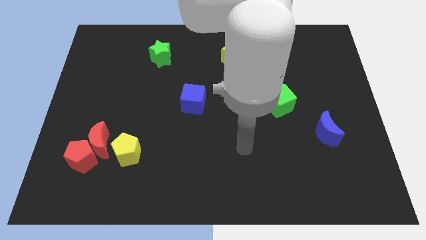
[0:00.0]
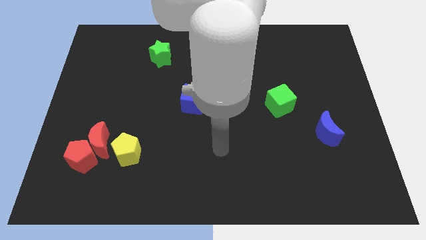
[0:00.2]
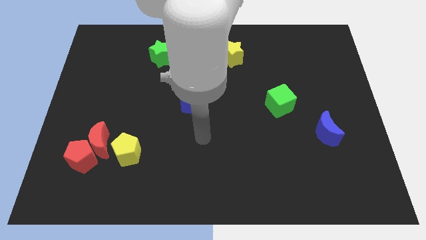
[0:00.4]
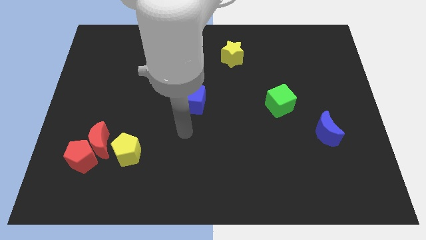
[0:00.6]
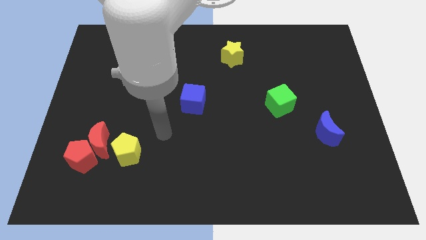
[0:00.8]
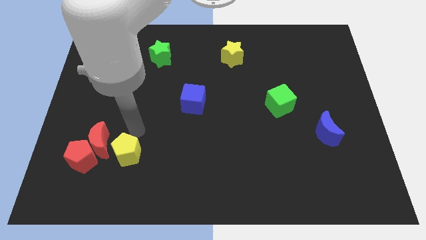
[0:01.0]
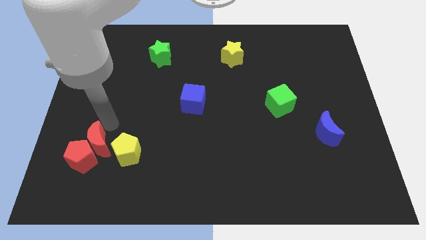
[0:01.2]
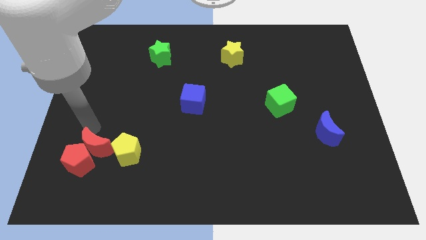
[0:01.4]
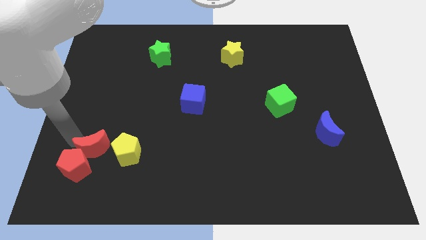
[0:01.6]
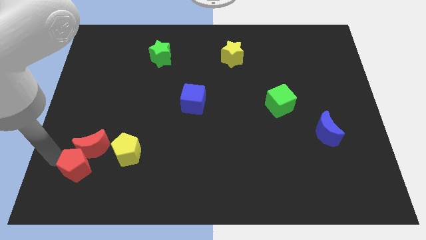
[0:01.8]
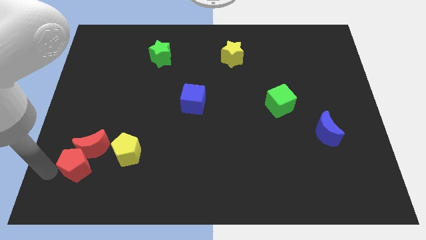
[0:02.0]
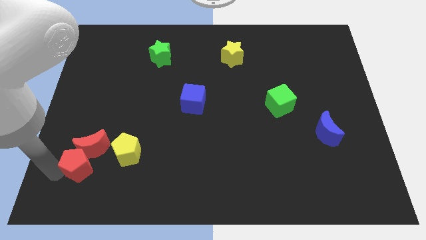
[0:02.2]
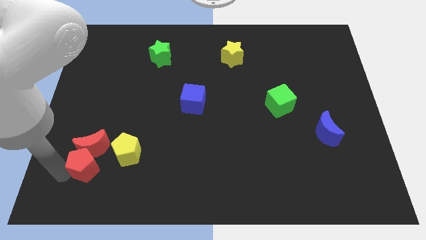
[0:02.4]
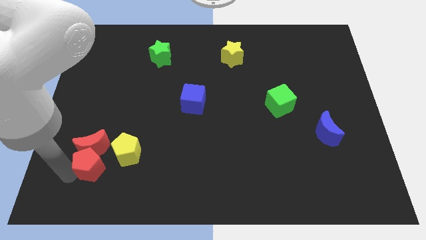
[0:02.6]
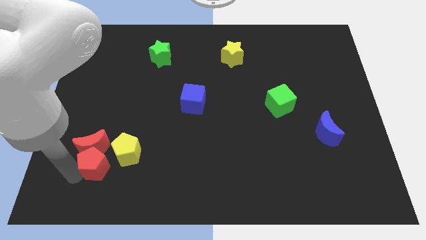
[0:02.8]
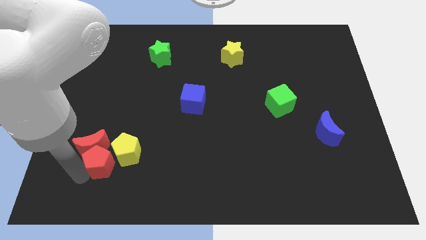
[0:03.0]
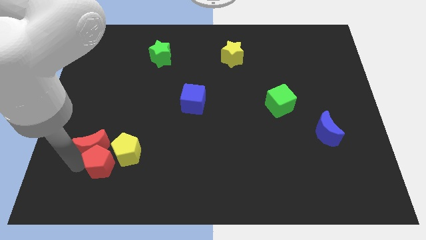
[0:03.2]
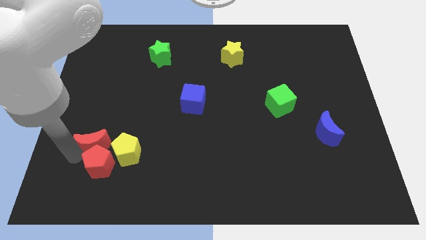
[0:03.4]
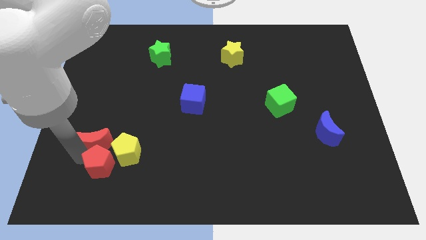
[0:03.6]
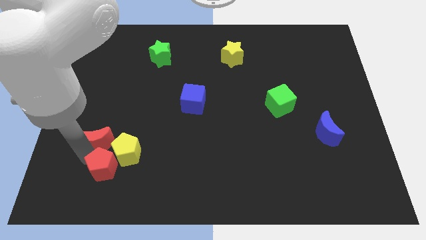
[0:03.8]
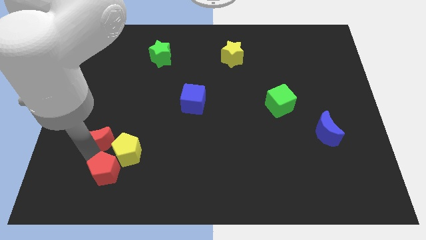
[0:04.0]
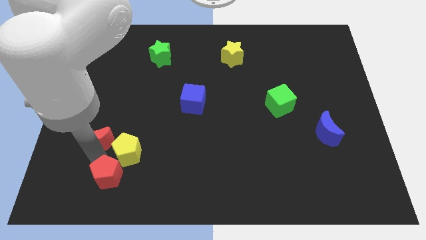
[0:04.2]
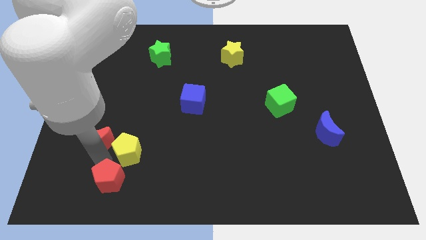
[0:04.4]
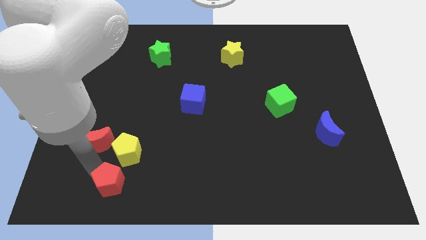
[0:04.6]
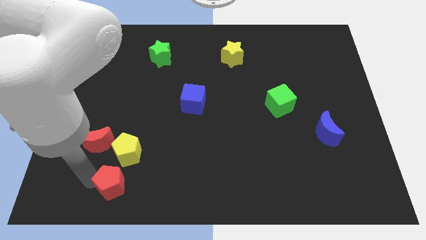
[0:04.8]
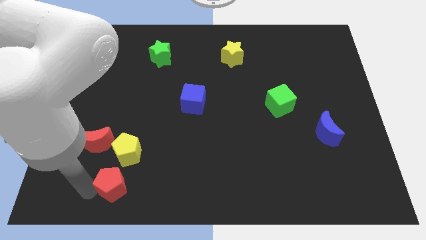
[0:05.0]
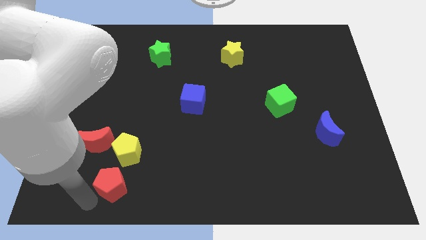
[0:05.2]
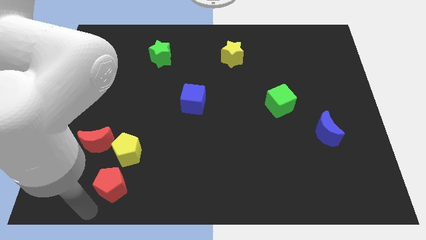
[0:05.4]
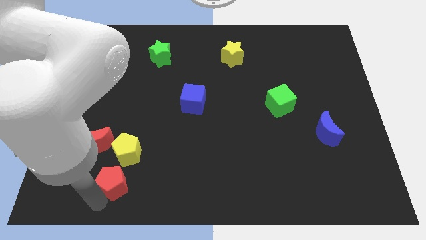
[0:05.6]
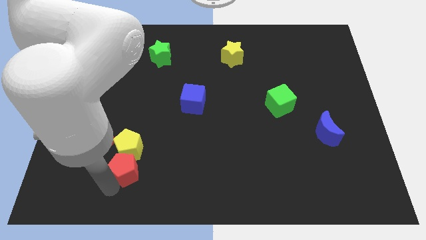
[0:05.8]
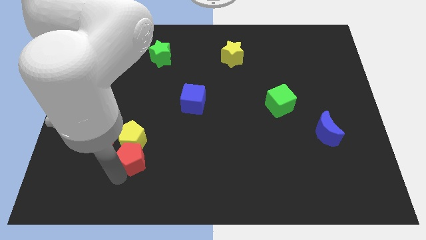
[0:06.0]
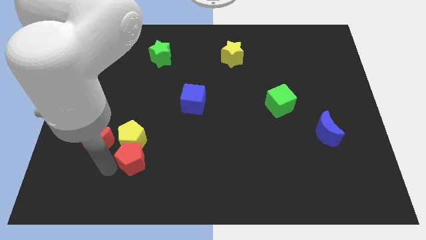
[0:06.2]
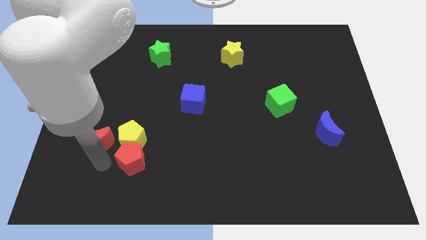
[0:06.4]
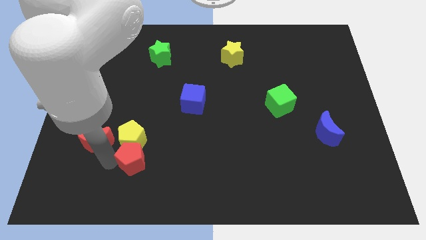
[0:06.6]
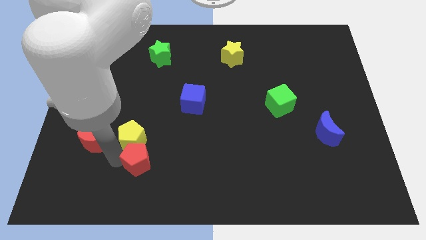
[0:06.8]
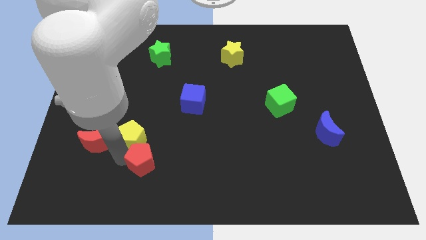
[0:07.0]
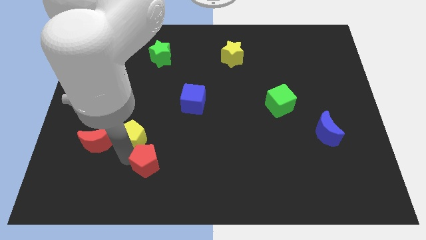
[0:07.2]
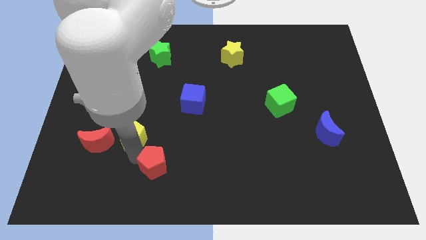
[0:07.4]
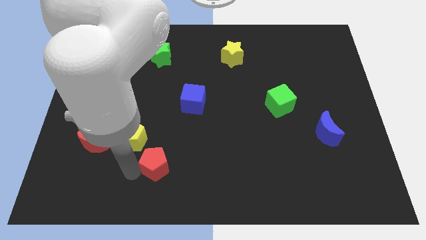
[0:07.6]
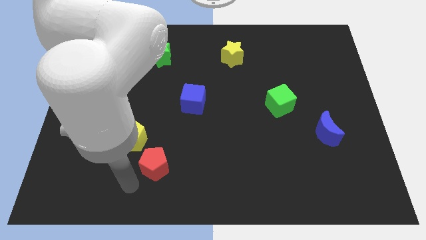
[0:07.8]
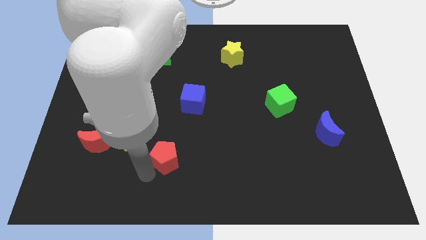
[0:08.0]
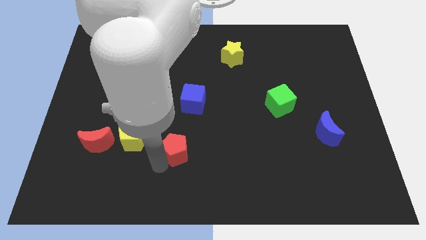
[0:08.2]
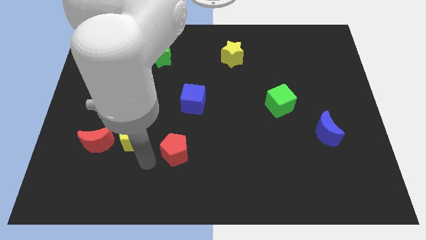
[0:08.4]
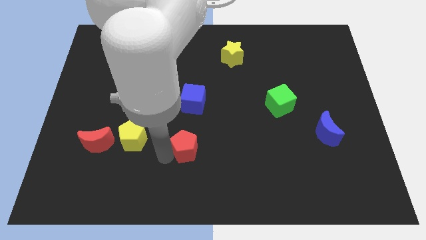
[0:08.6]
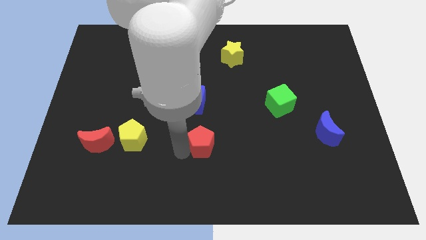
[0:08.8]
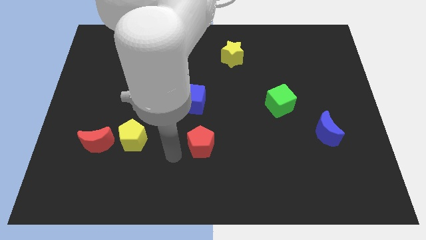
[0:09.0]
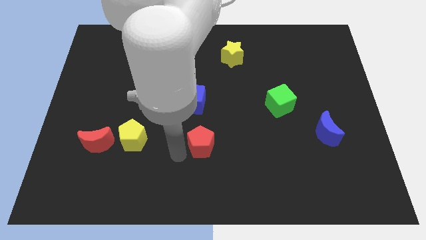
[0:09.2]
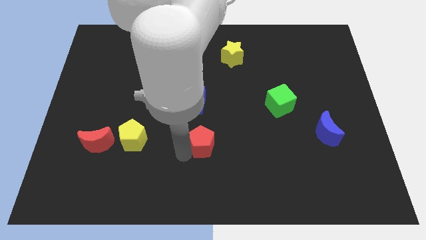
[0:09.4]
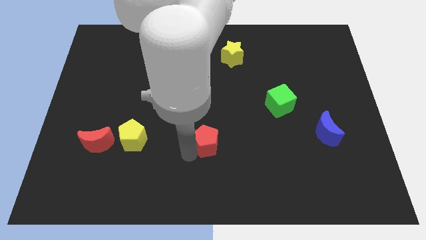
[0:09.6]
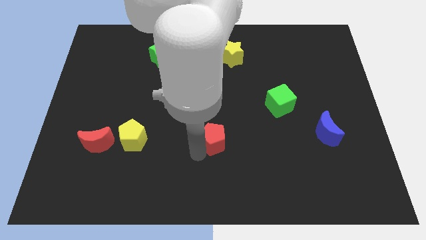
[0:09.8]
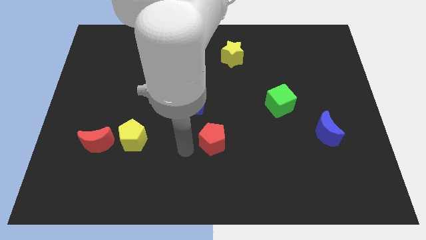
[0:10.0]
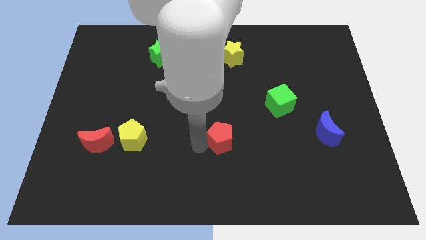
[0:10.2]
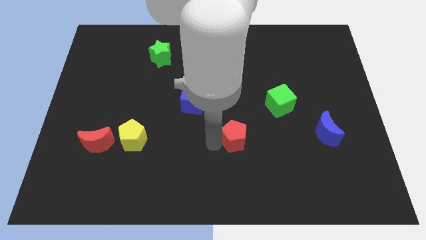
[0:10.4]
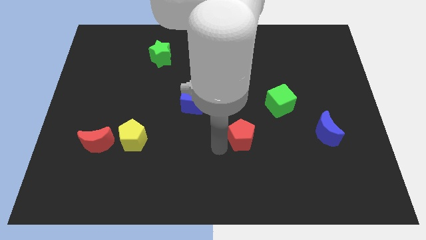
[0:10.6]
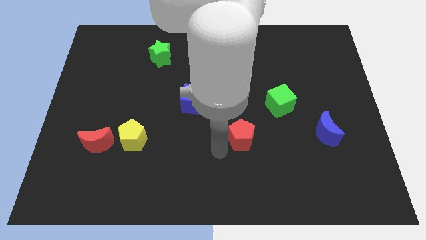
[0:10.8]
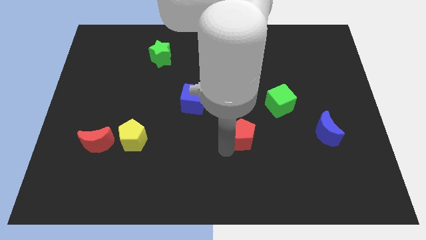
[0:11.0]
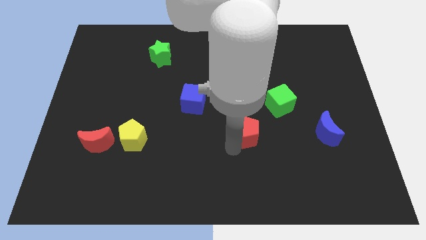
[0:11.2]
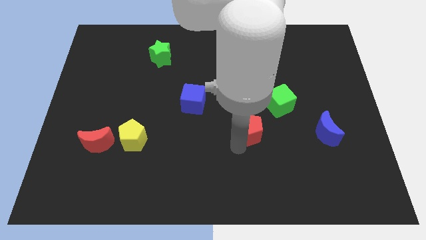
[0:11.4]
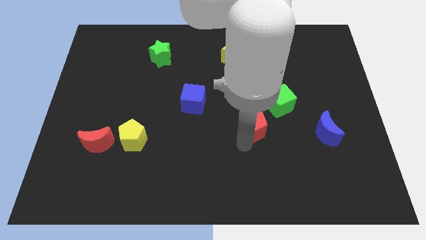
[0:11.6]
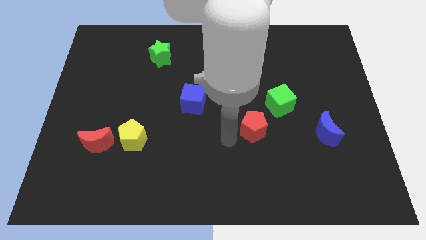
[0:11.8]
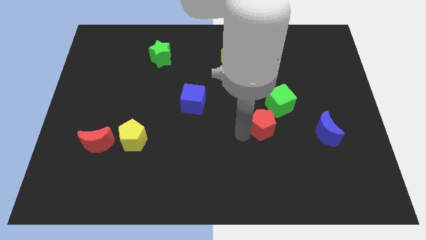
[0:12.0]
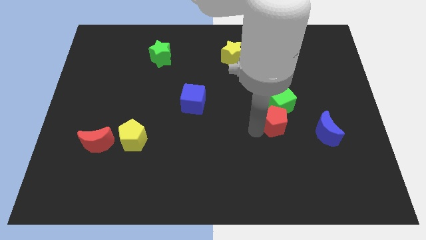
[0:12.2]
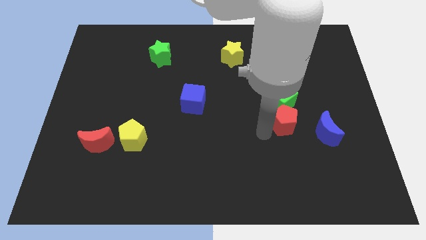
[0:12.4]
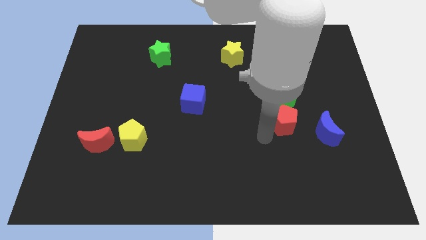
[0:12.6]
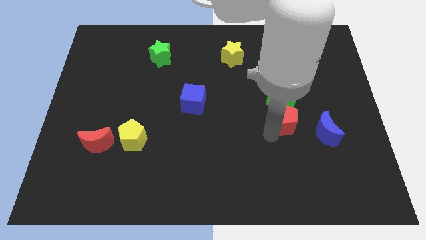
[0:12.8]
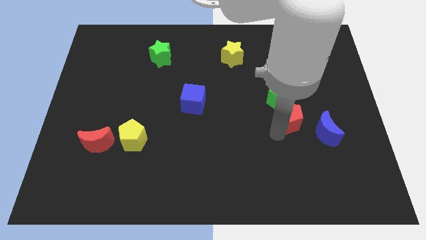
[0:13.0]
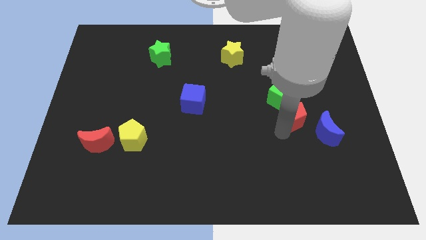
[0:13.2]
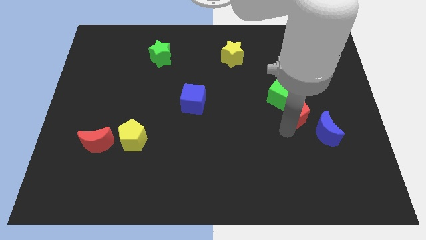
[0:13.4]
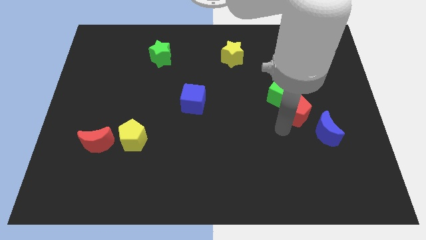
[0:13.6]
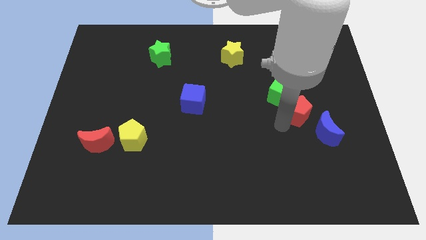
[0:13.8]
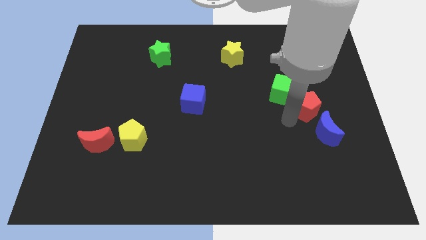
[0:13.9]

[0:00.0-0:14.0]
slide the red pentagon to the right side of the green cube

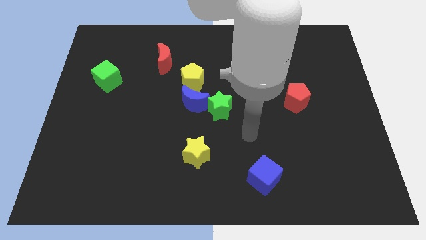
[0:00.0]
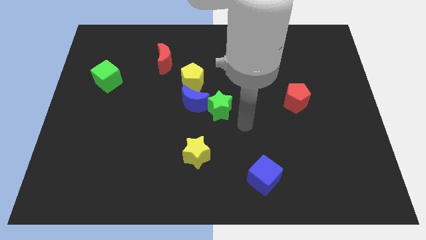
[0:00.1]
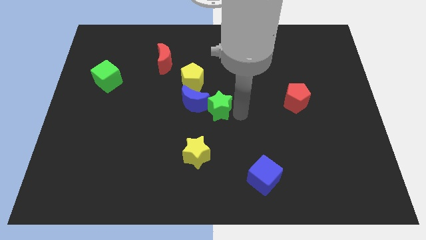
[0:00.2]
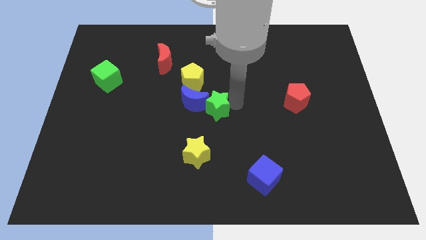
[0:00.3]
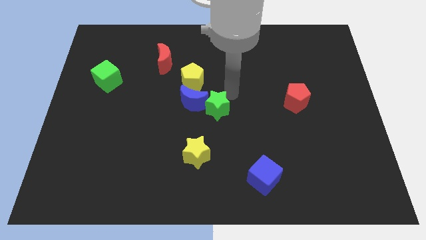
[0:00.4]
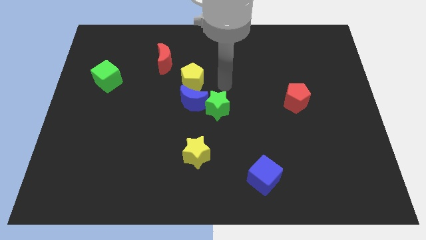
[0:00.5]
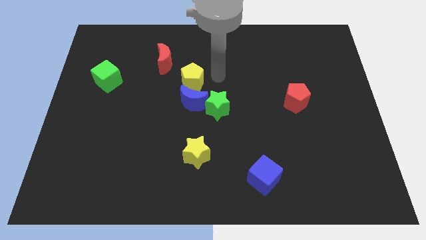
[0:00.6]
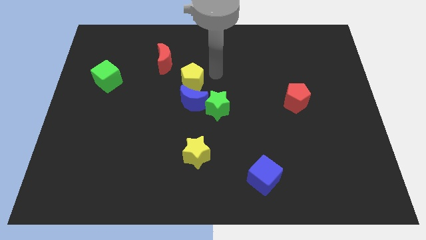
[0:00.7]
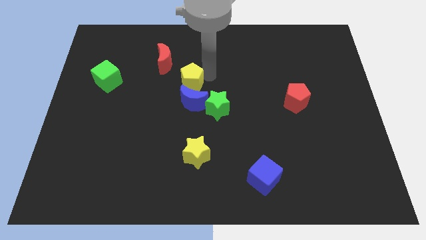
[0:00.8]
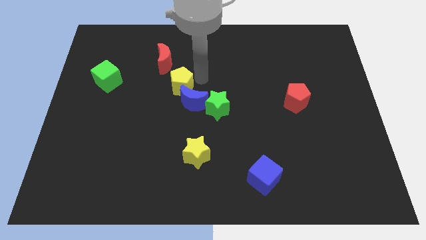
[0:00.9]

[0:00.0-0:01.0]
move the yellow pentagon below the red moon
